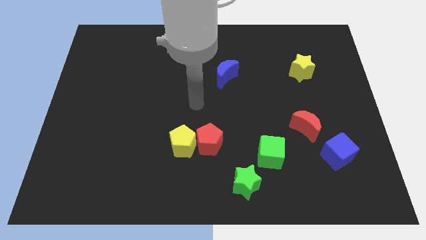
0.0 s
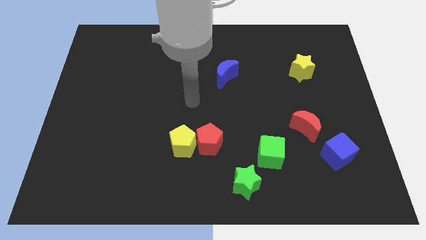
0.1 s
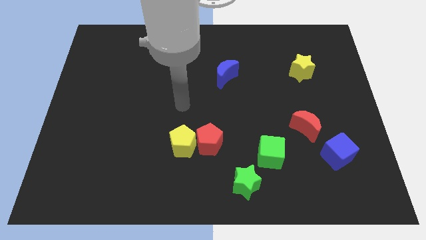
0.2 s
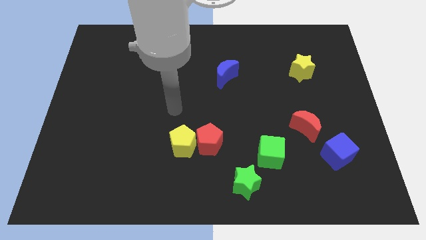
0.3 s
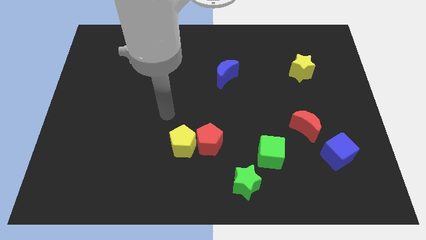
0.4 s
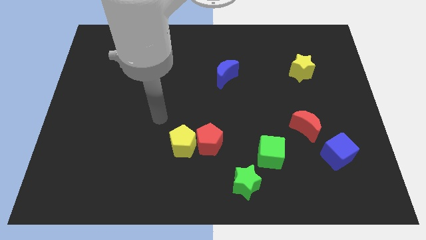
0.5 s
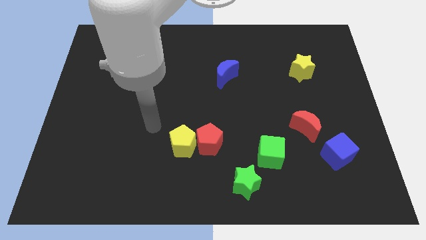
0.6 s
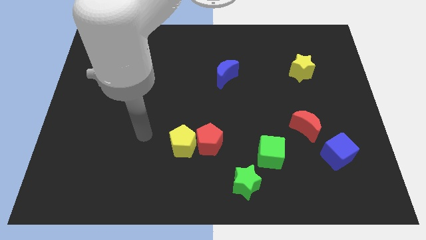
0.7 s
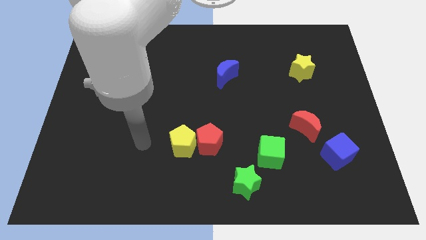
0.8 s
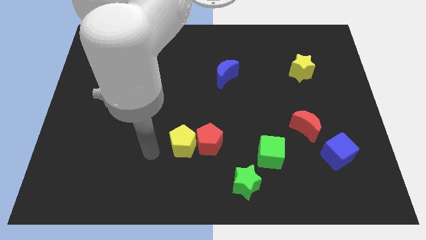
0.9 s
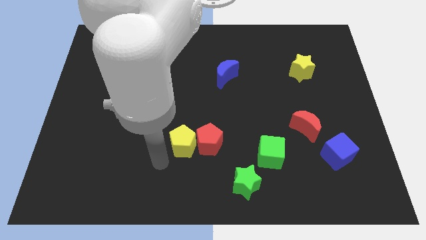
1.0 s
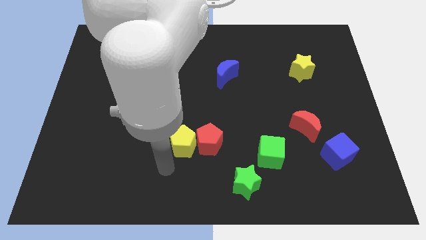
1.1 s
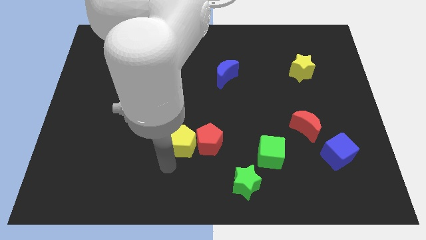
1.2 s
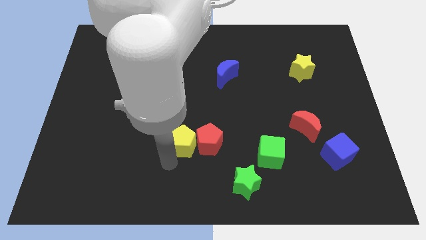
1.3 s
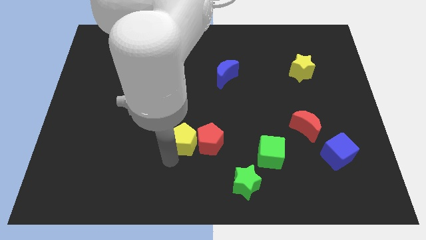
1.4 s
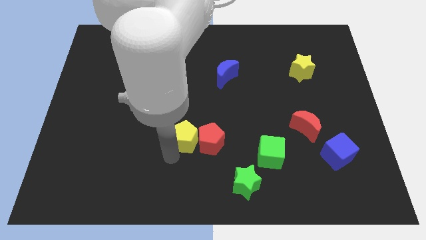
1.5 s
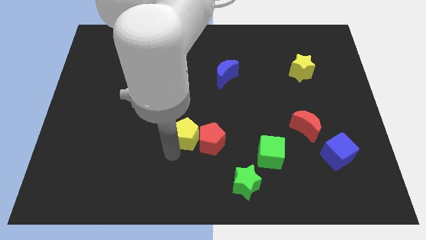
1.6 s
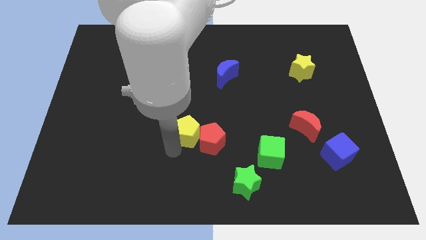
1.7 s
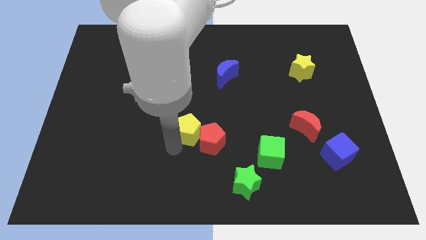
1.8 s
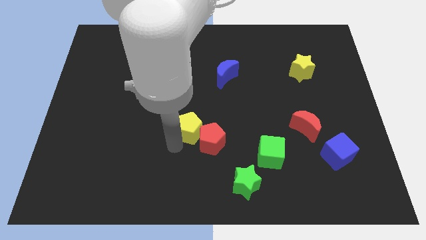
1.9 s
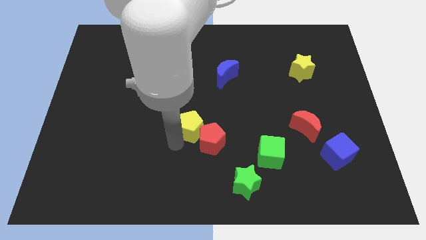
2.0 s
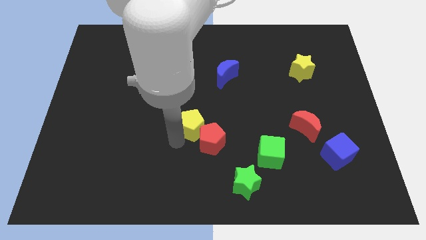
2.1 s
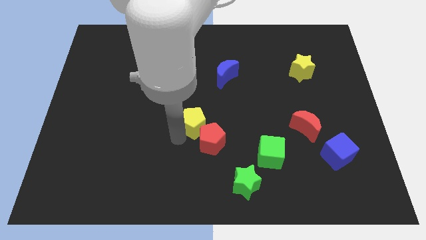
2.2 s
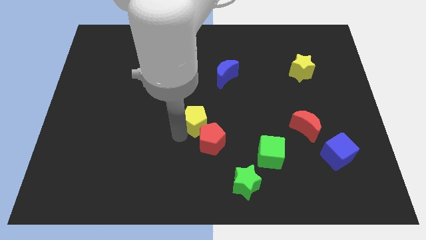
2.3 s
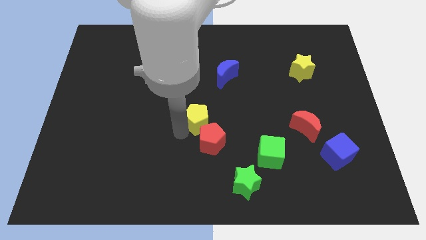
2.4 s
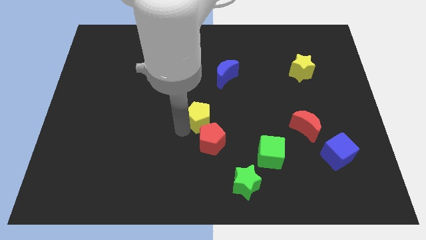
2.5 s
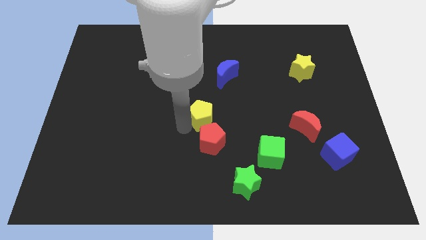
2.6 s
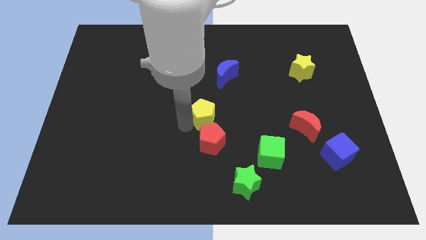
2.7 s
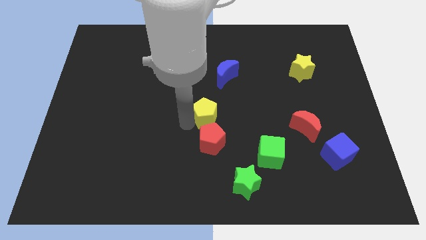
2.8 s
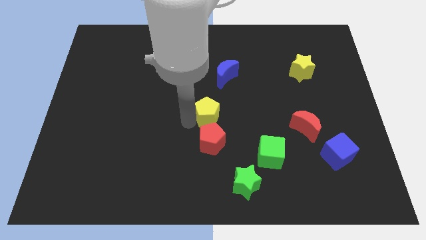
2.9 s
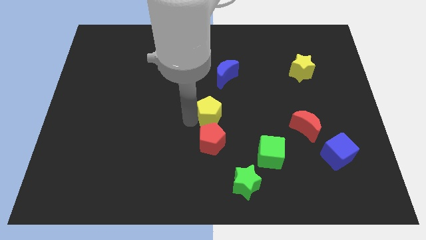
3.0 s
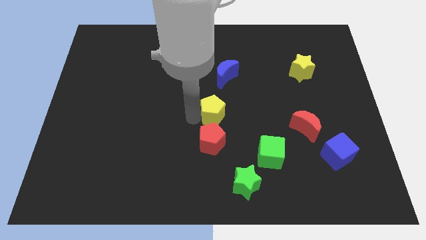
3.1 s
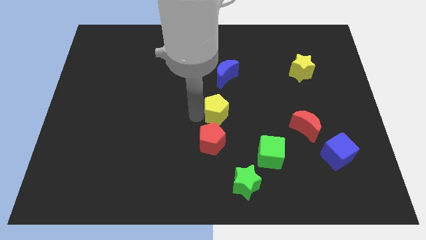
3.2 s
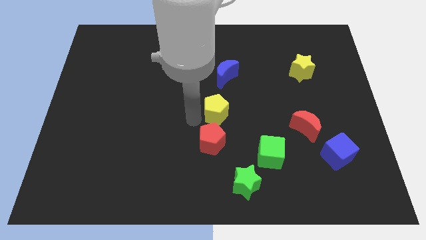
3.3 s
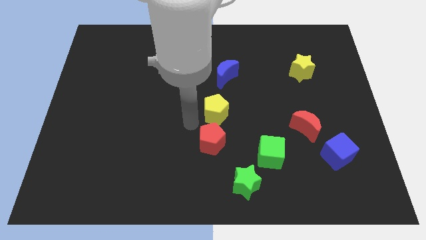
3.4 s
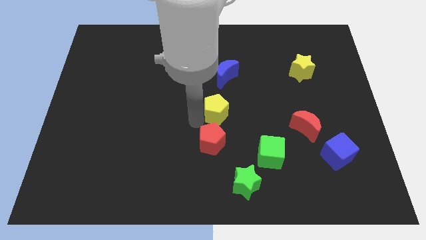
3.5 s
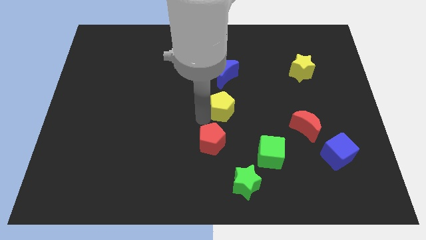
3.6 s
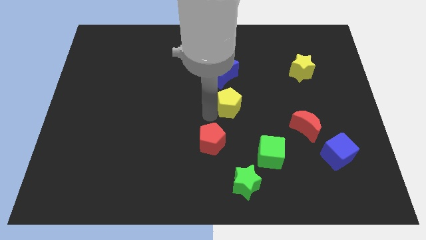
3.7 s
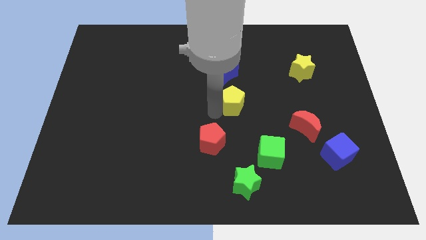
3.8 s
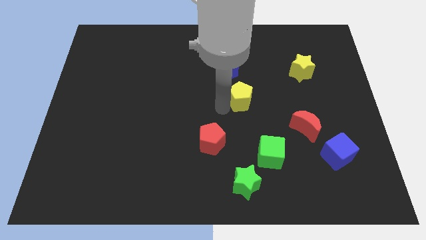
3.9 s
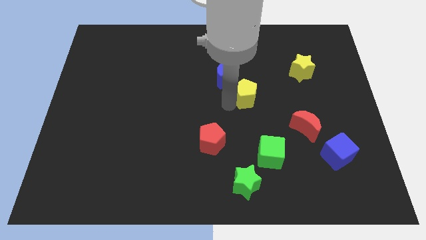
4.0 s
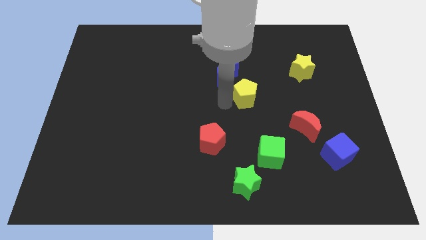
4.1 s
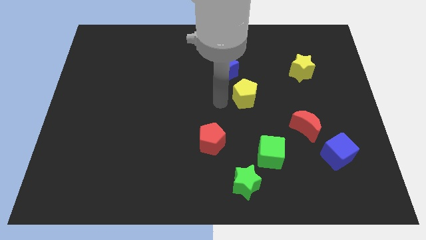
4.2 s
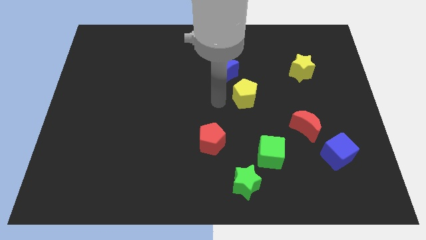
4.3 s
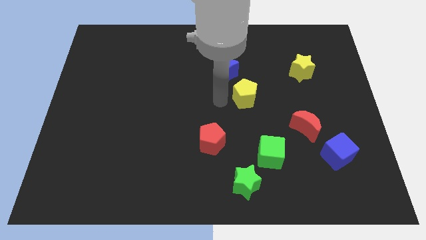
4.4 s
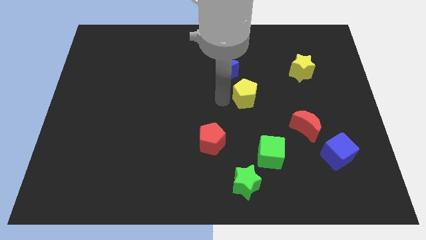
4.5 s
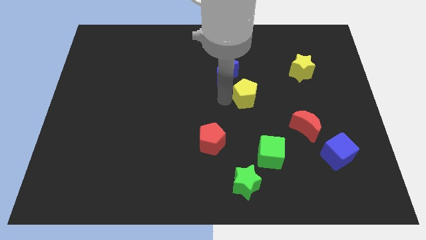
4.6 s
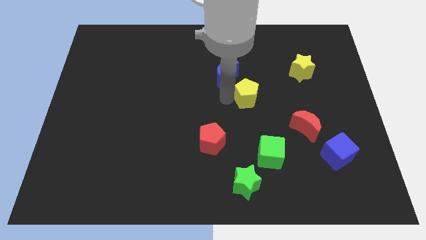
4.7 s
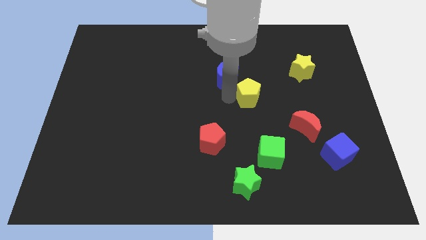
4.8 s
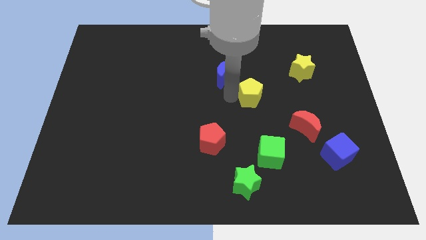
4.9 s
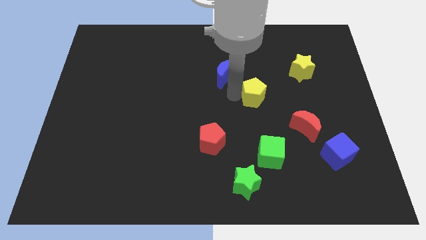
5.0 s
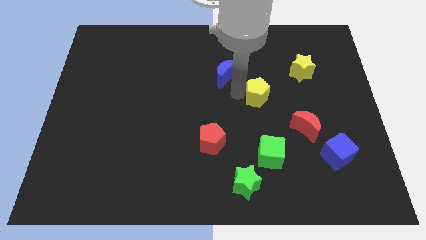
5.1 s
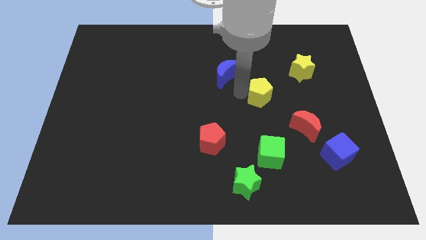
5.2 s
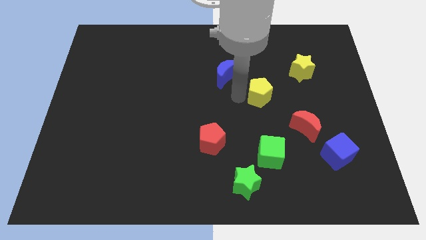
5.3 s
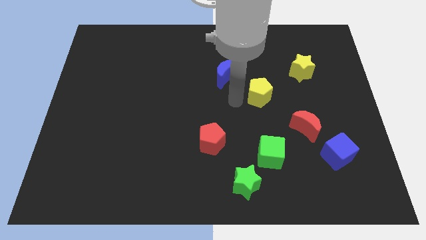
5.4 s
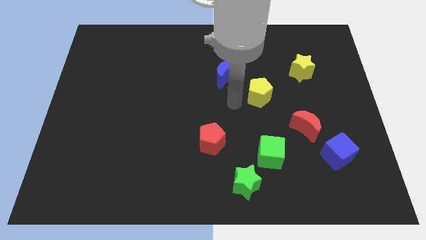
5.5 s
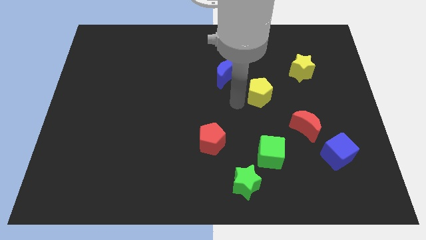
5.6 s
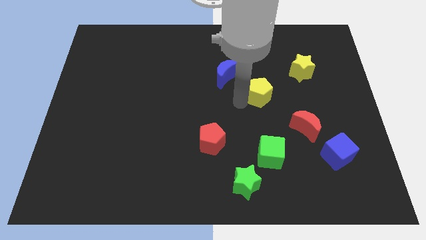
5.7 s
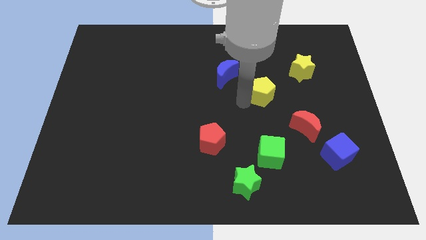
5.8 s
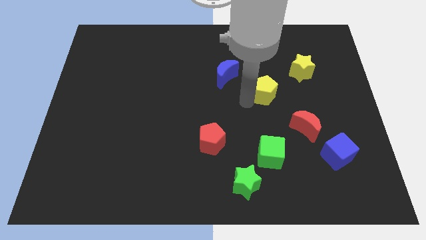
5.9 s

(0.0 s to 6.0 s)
slide the yellow pentagon to the bottom left side of the yellow star

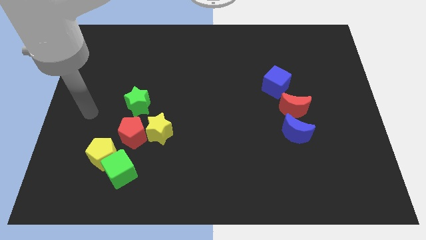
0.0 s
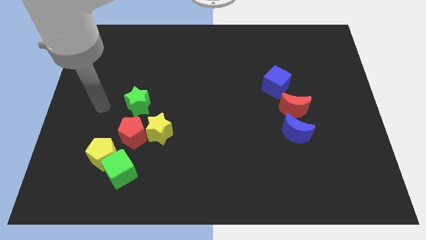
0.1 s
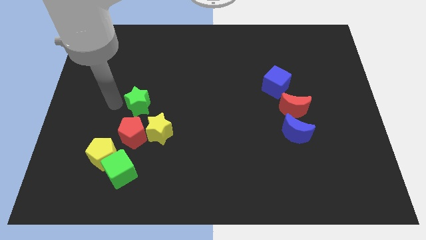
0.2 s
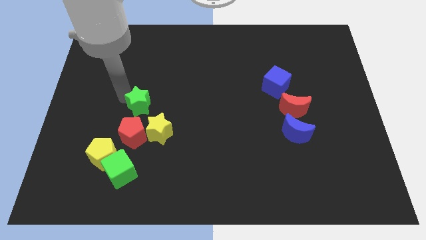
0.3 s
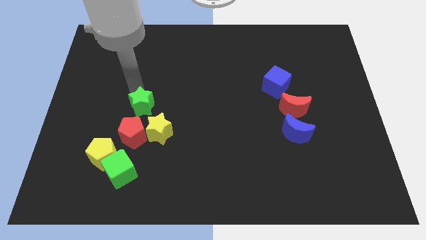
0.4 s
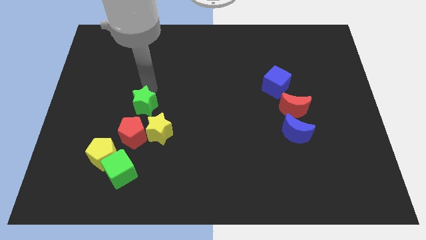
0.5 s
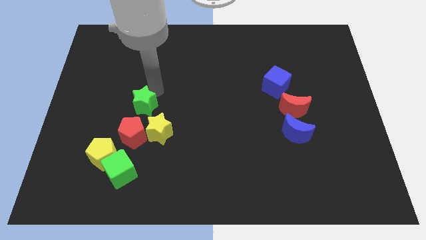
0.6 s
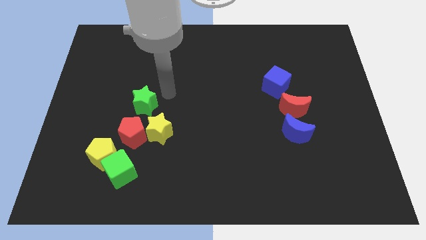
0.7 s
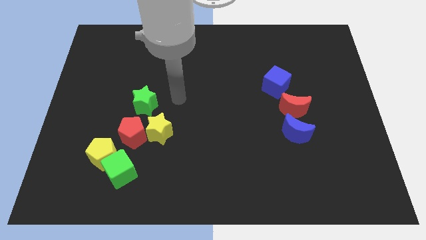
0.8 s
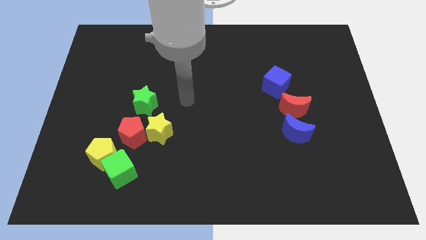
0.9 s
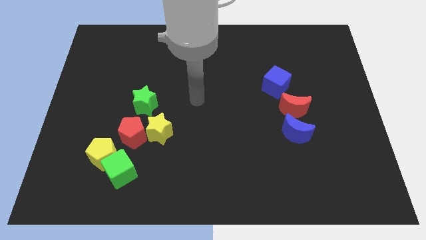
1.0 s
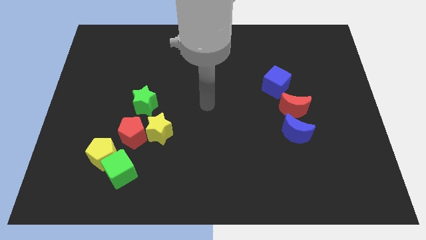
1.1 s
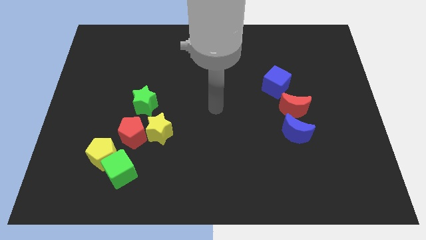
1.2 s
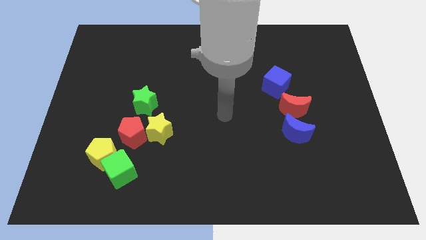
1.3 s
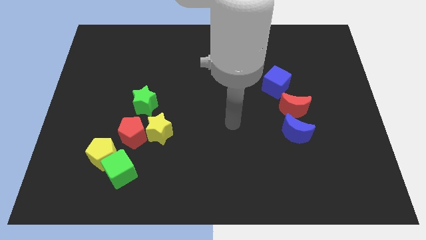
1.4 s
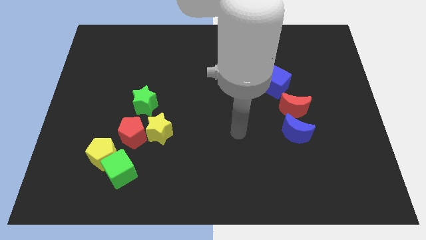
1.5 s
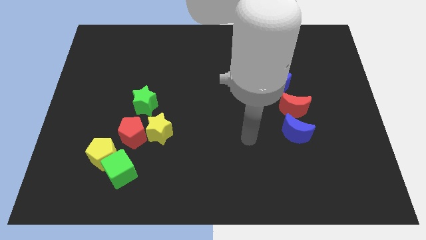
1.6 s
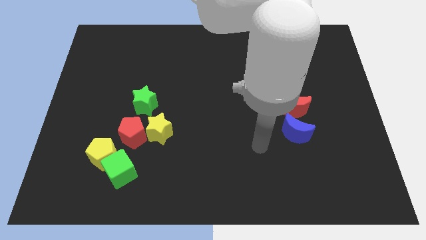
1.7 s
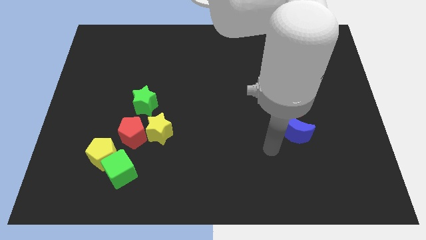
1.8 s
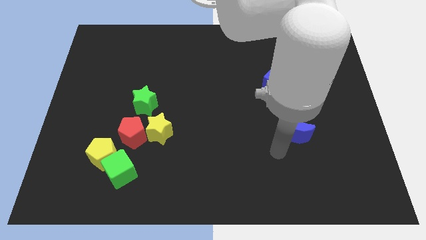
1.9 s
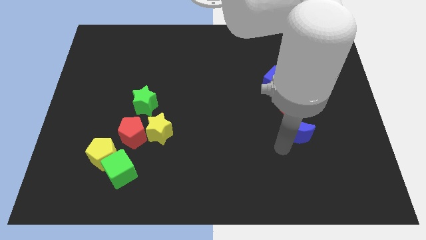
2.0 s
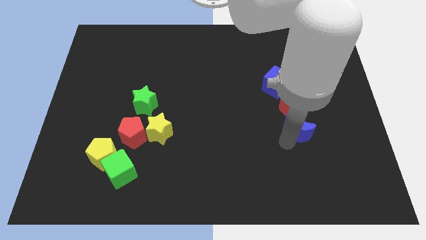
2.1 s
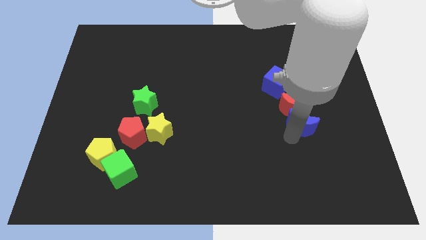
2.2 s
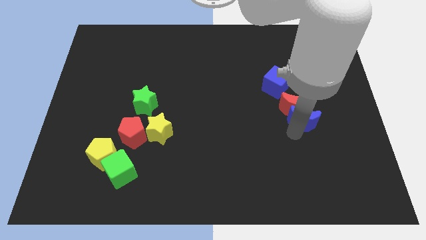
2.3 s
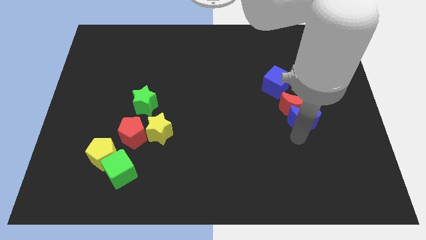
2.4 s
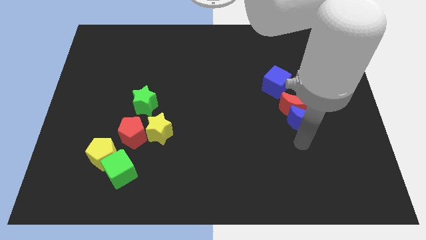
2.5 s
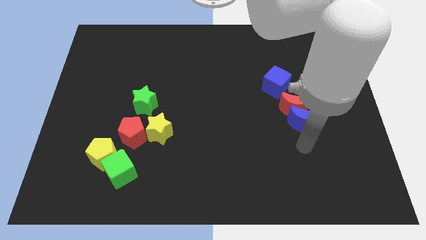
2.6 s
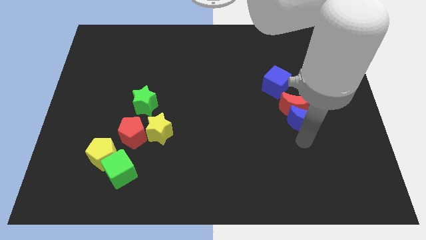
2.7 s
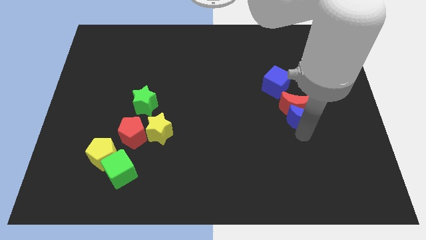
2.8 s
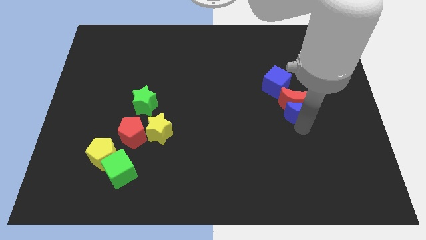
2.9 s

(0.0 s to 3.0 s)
slide the blue moon to the bottom right of the blue cube
